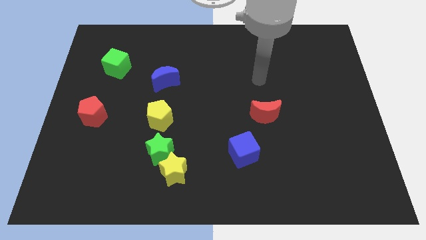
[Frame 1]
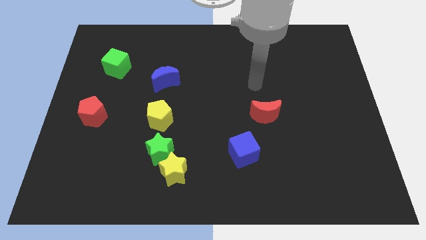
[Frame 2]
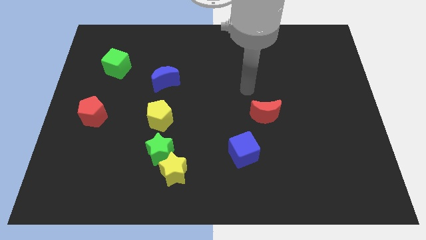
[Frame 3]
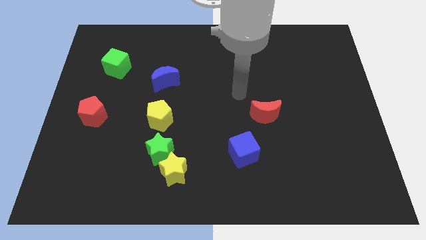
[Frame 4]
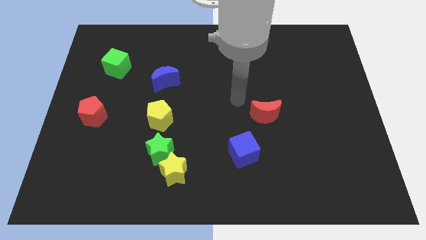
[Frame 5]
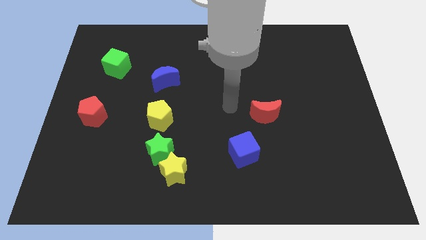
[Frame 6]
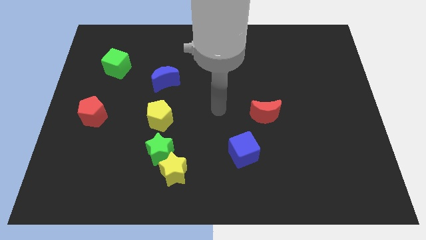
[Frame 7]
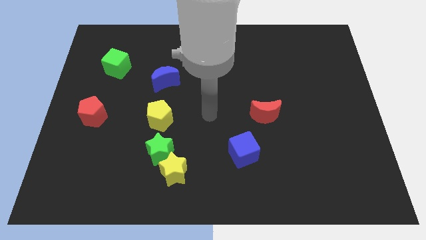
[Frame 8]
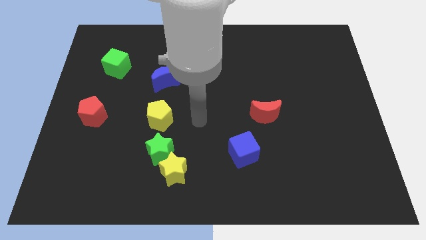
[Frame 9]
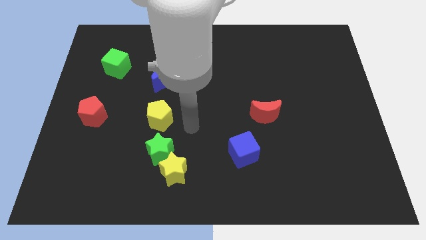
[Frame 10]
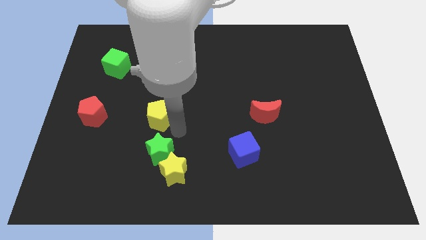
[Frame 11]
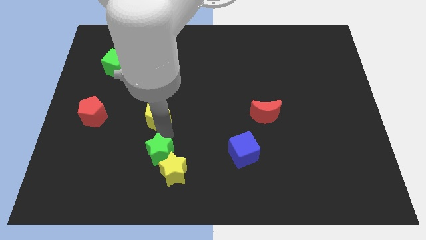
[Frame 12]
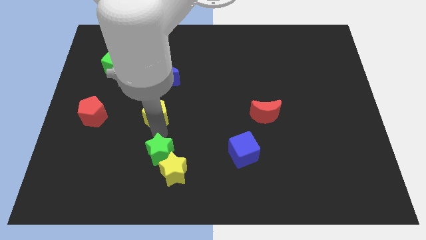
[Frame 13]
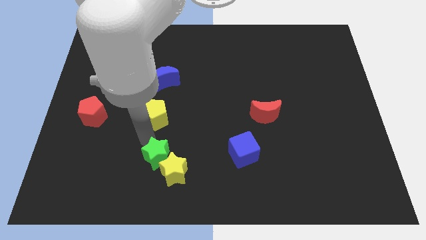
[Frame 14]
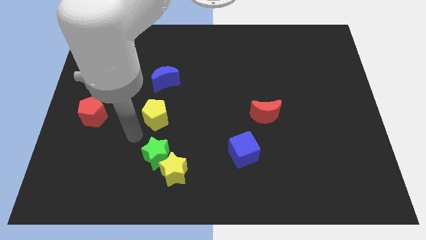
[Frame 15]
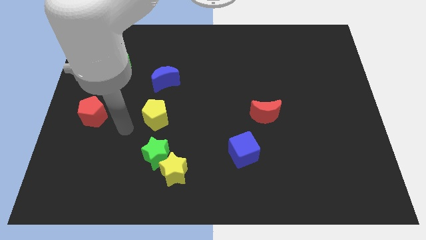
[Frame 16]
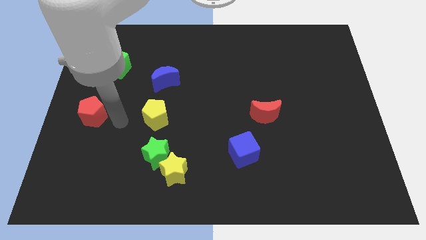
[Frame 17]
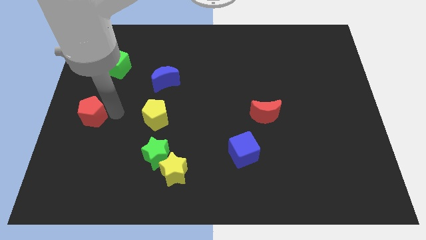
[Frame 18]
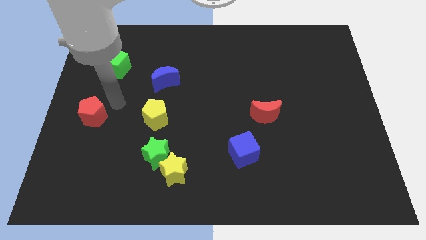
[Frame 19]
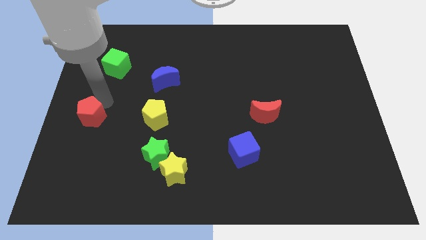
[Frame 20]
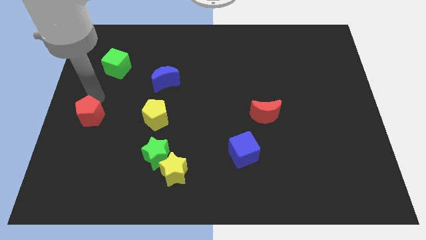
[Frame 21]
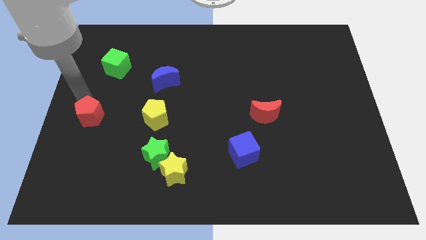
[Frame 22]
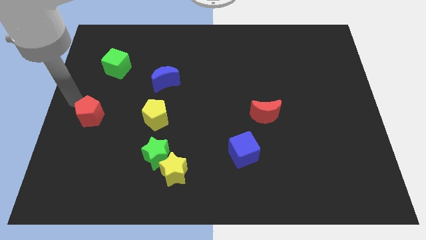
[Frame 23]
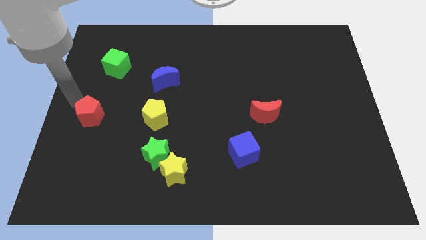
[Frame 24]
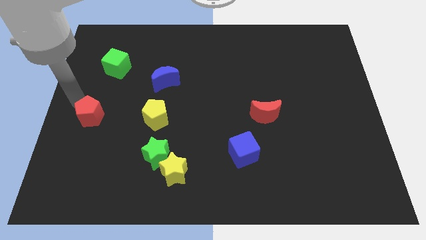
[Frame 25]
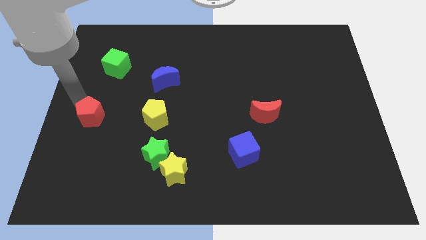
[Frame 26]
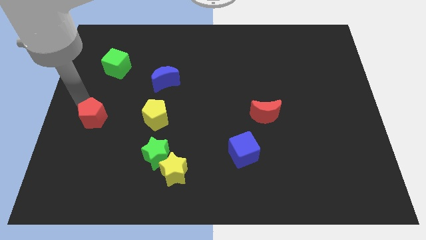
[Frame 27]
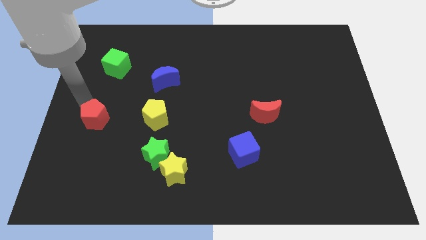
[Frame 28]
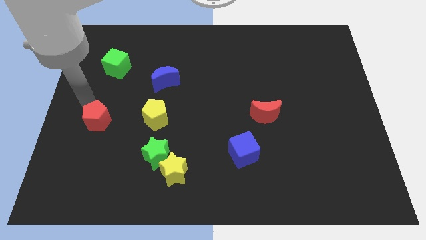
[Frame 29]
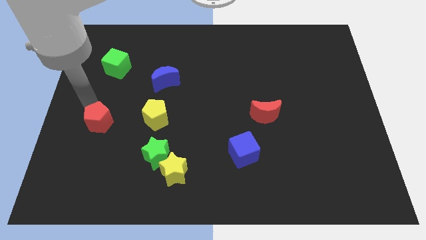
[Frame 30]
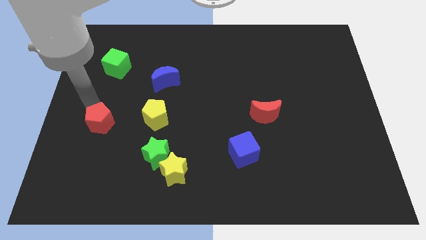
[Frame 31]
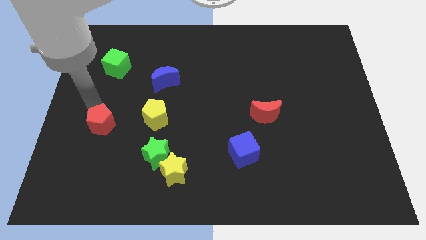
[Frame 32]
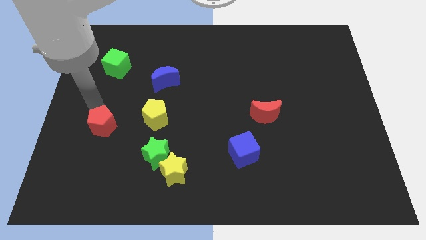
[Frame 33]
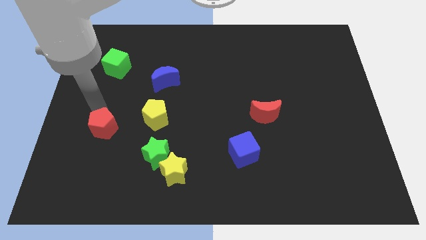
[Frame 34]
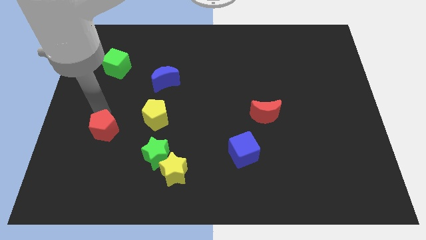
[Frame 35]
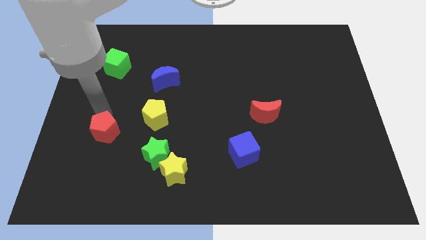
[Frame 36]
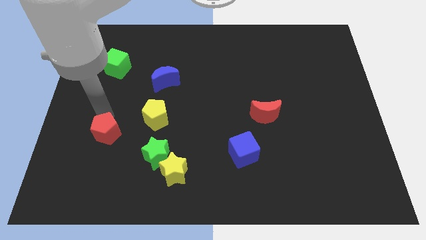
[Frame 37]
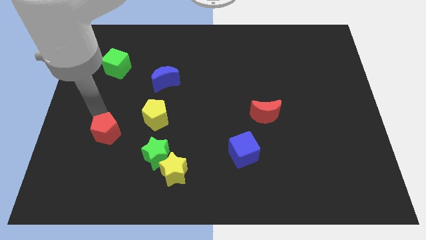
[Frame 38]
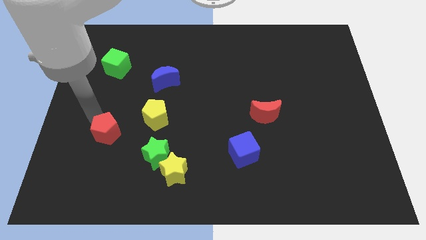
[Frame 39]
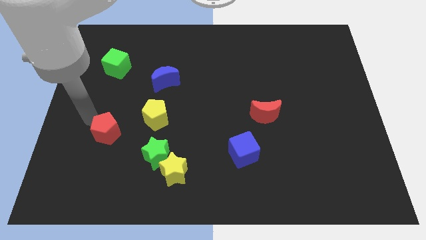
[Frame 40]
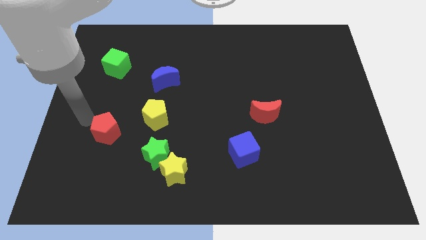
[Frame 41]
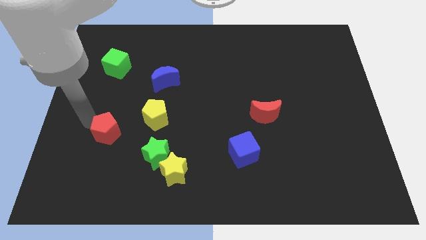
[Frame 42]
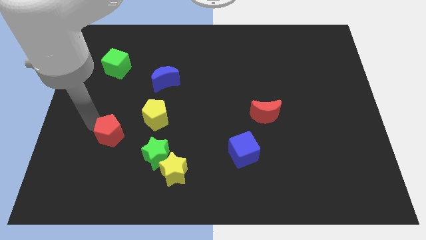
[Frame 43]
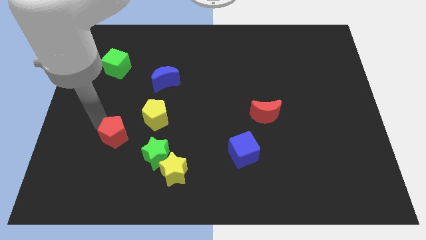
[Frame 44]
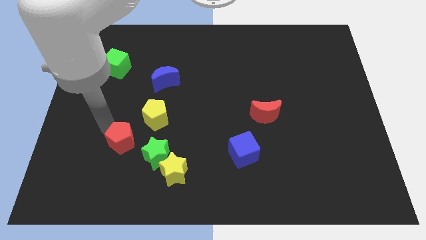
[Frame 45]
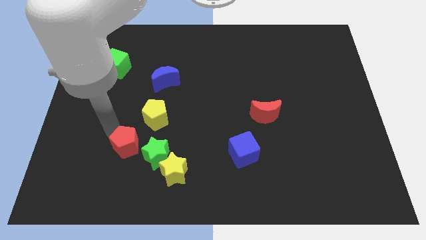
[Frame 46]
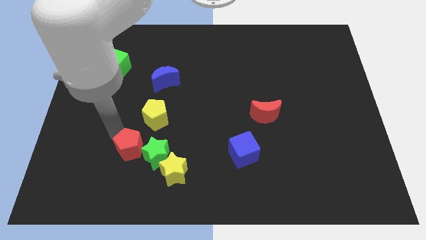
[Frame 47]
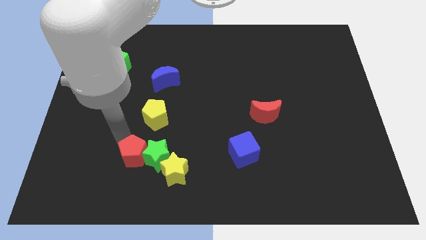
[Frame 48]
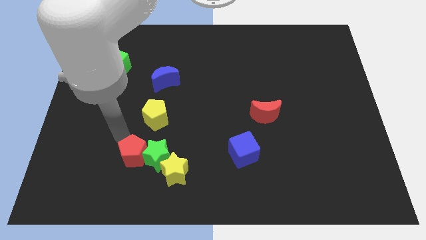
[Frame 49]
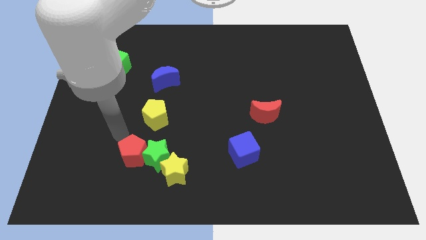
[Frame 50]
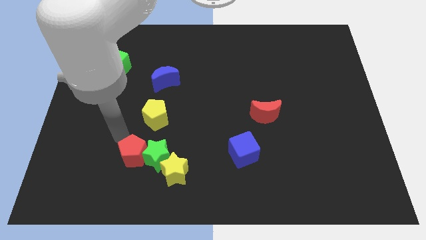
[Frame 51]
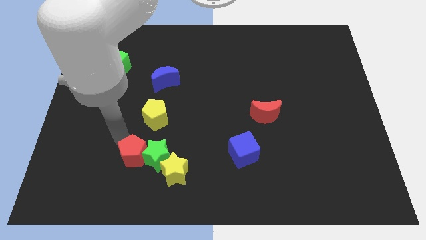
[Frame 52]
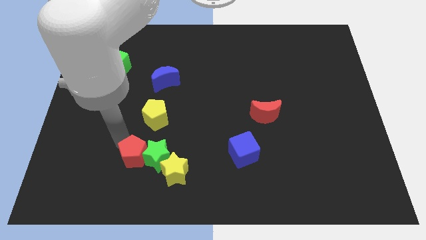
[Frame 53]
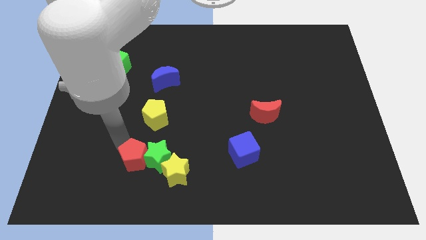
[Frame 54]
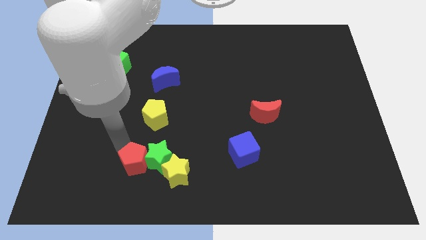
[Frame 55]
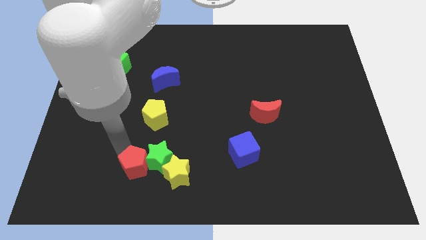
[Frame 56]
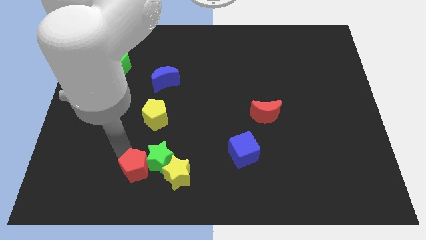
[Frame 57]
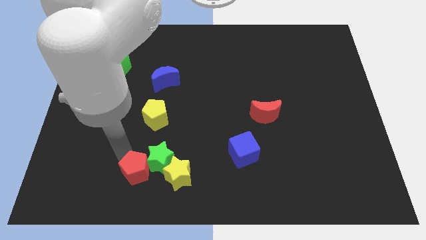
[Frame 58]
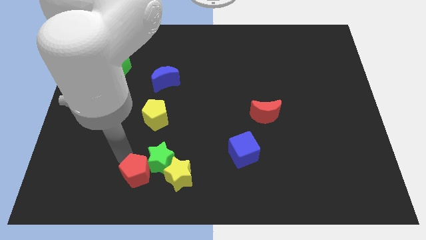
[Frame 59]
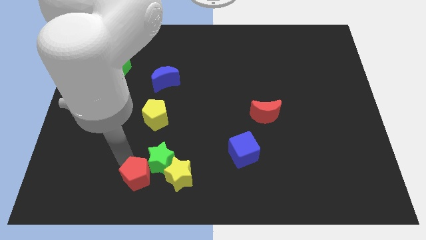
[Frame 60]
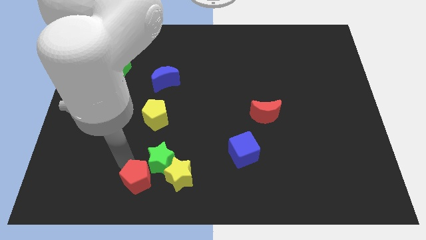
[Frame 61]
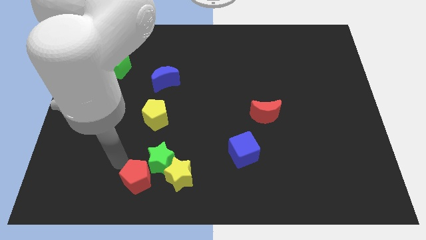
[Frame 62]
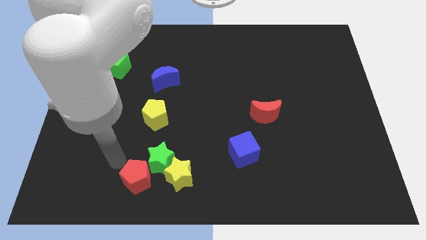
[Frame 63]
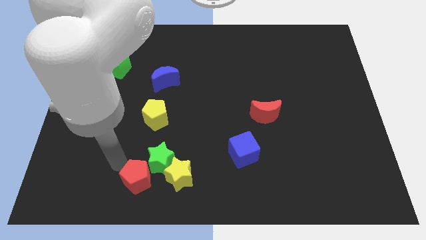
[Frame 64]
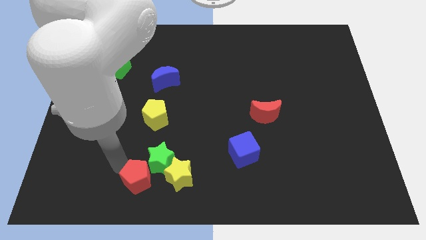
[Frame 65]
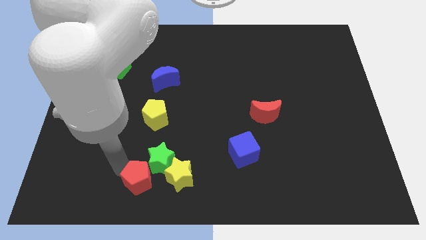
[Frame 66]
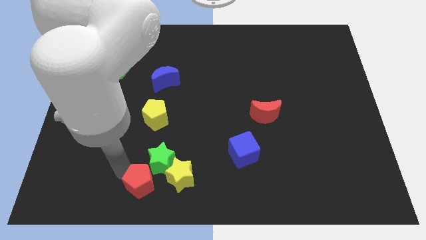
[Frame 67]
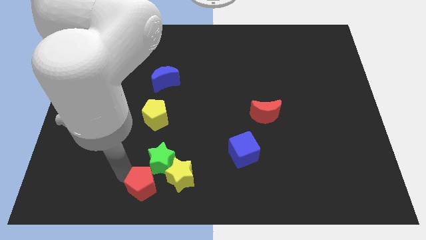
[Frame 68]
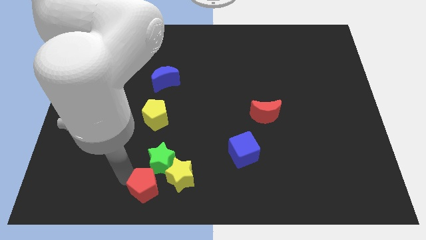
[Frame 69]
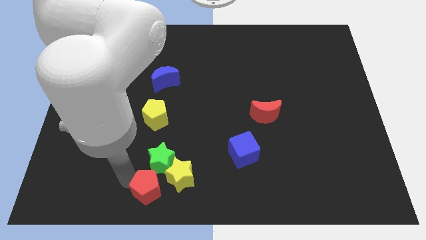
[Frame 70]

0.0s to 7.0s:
move the red pentagon to the bottom

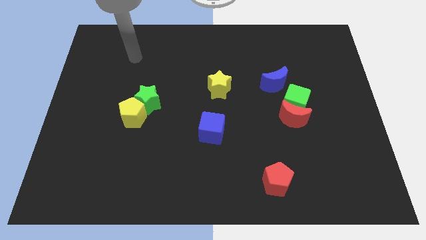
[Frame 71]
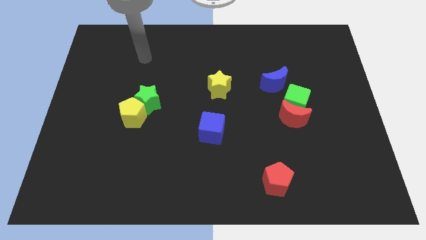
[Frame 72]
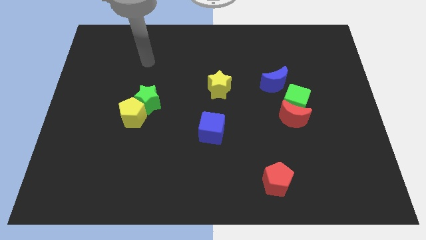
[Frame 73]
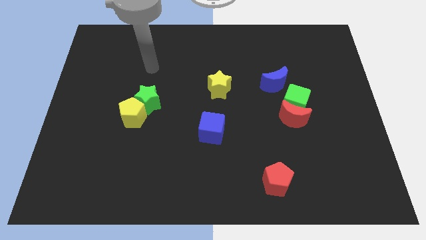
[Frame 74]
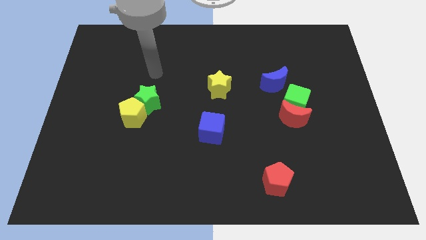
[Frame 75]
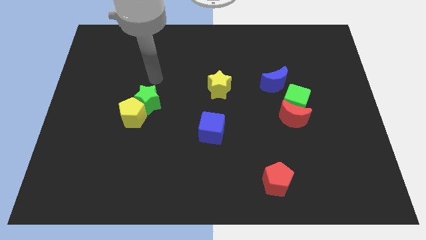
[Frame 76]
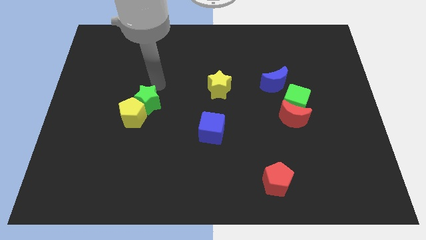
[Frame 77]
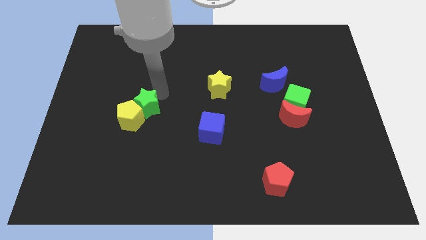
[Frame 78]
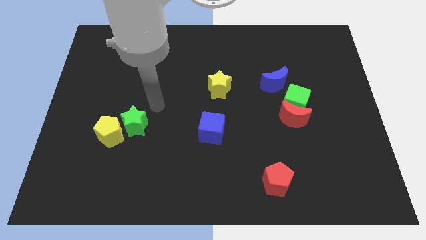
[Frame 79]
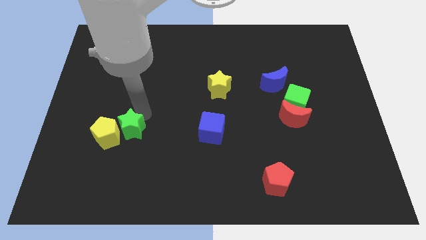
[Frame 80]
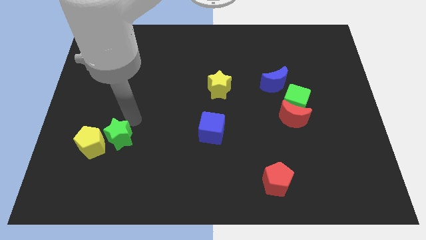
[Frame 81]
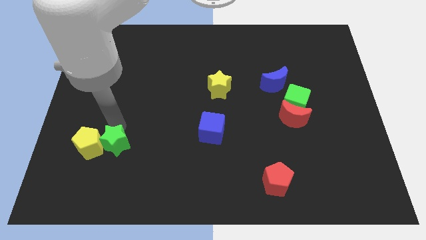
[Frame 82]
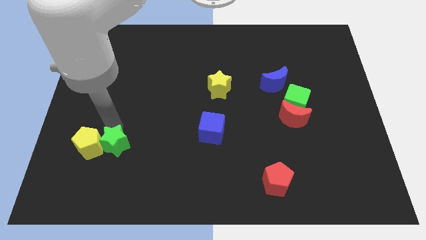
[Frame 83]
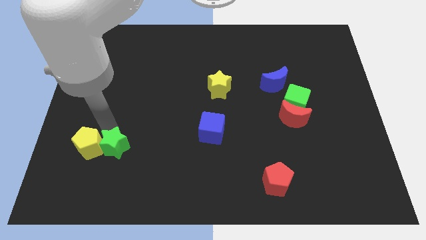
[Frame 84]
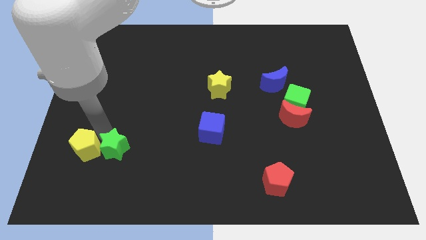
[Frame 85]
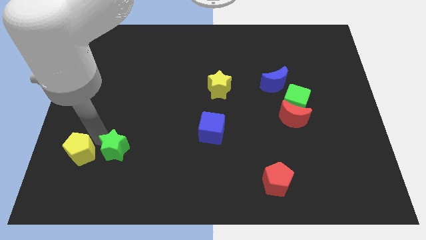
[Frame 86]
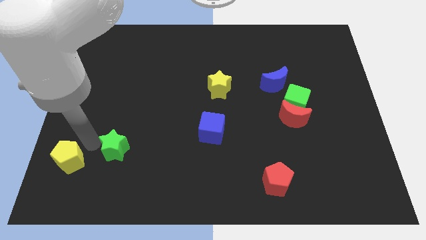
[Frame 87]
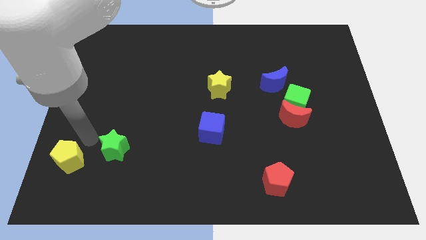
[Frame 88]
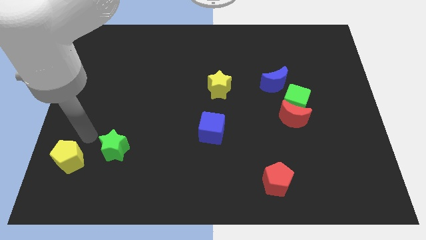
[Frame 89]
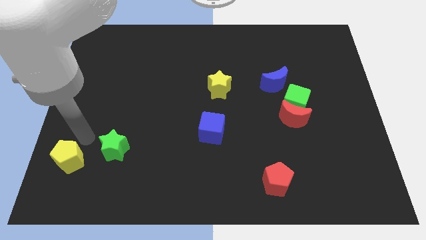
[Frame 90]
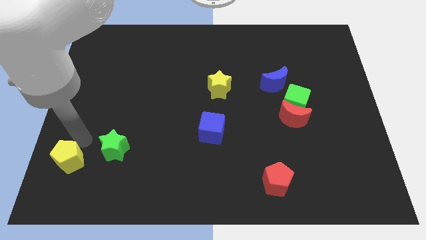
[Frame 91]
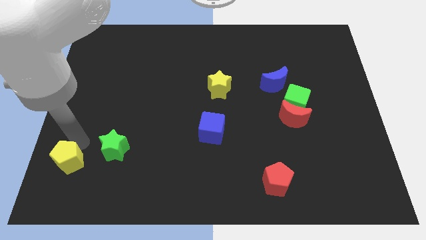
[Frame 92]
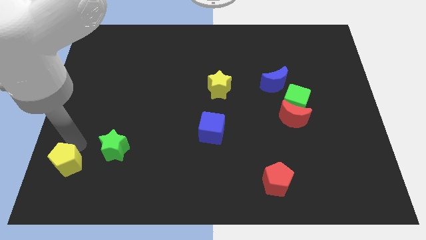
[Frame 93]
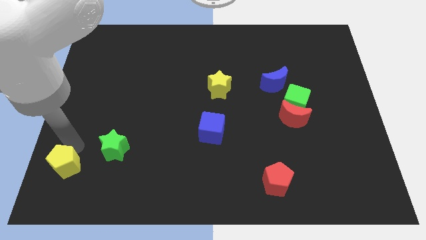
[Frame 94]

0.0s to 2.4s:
push the yellow pentagon to the bottom left corner
